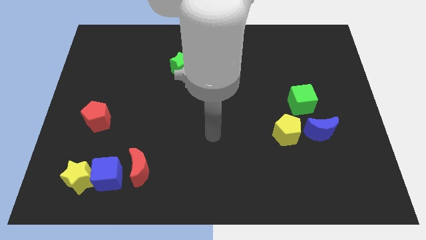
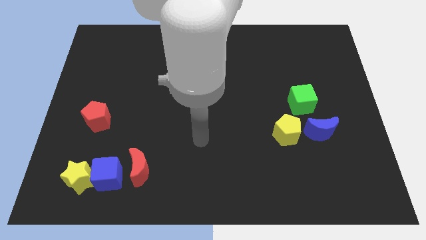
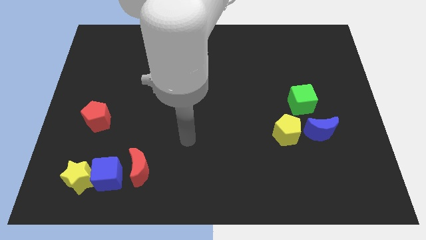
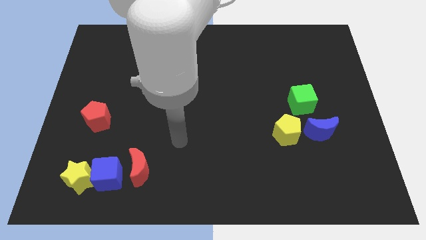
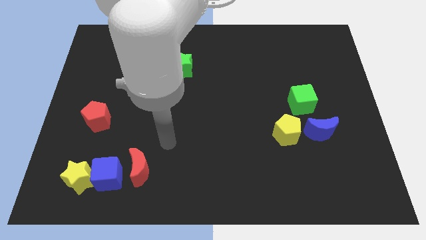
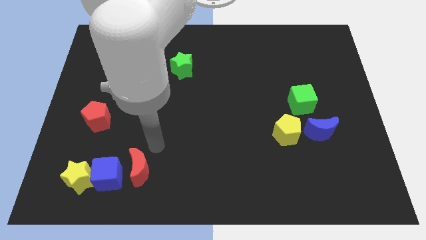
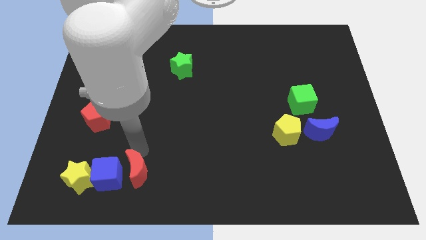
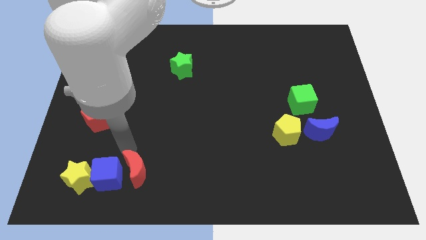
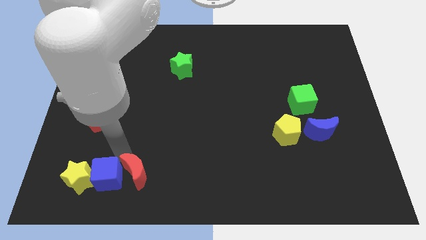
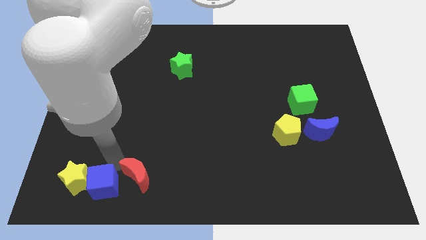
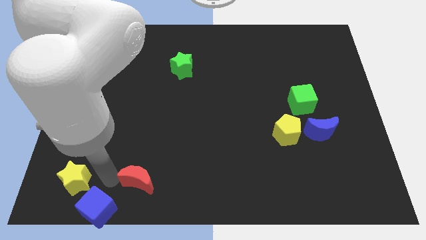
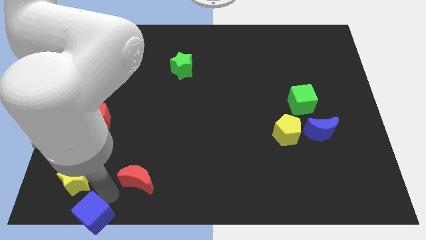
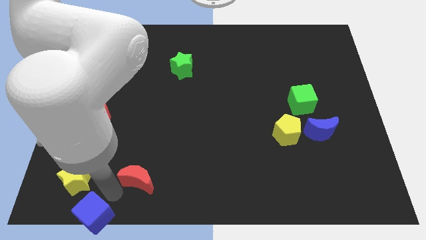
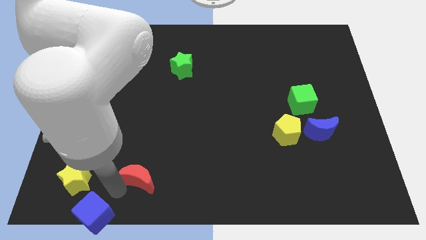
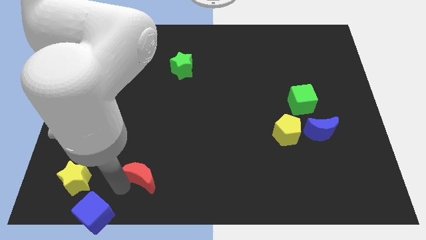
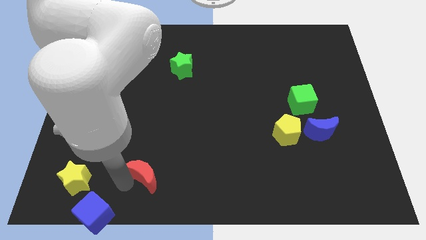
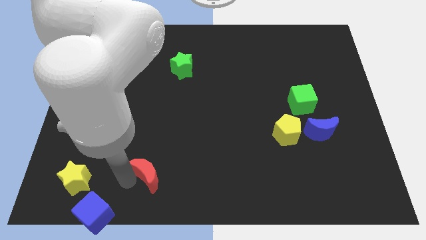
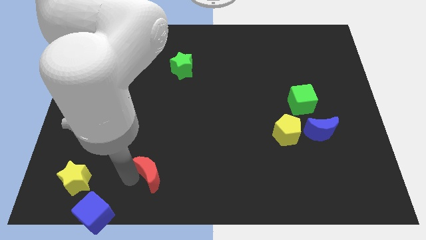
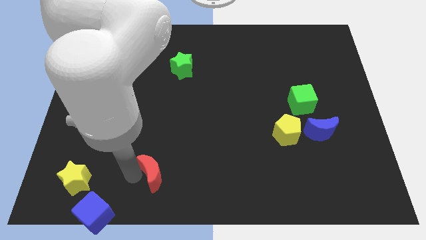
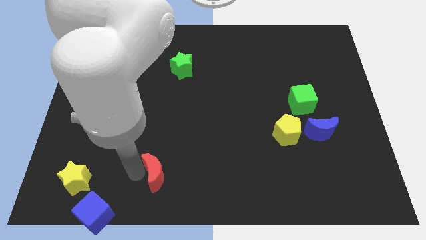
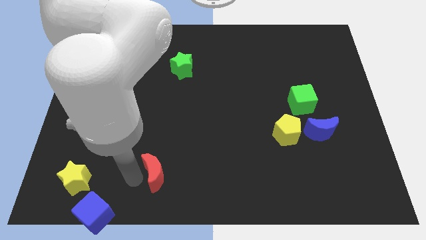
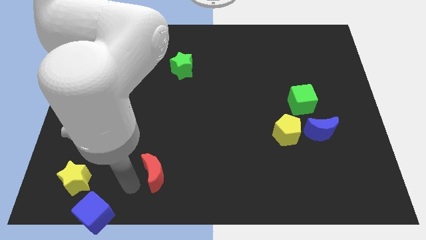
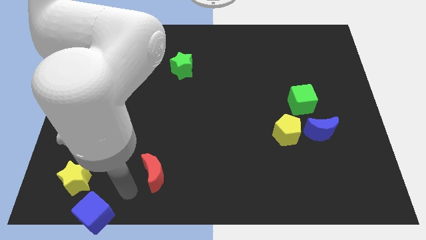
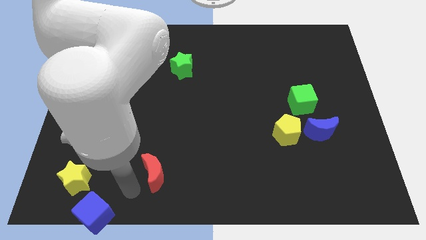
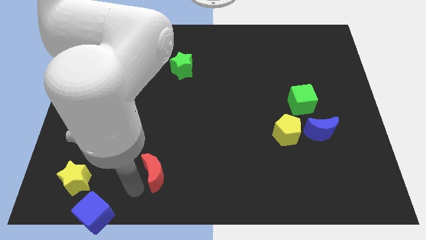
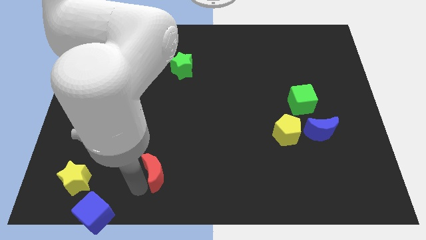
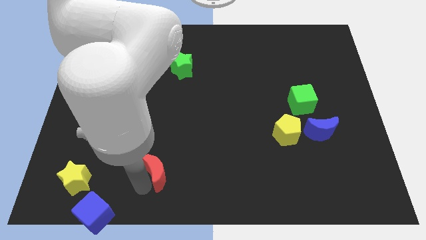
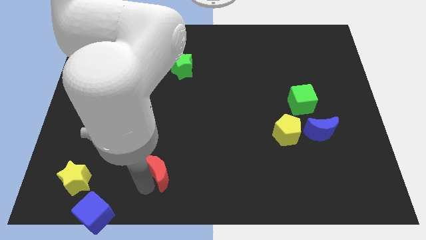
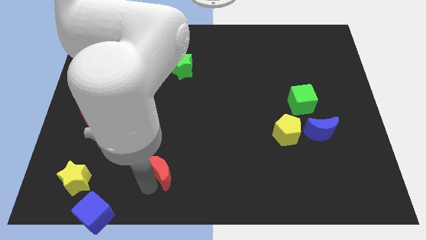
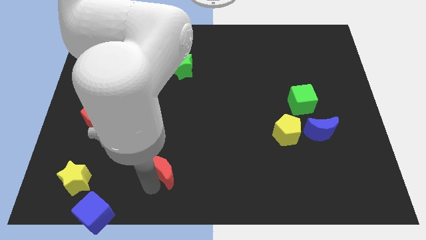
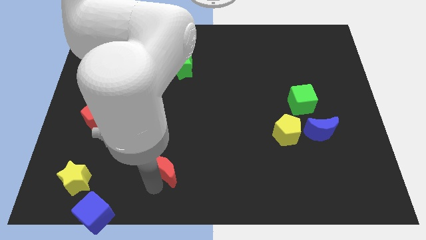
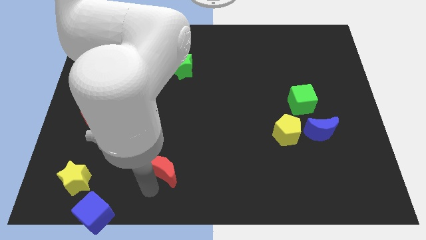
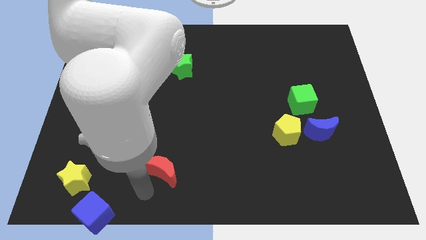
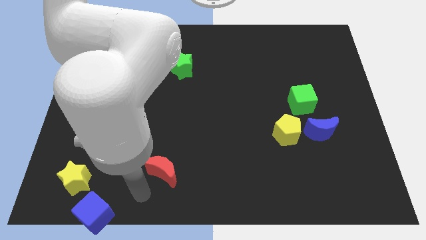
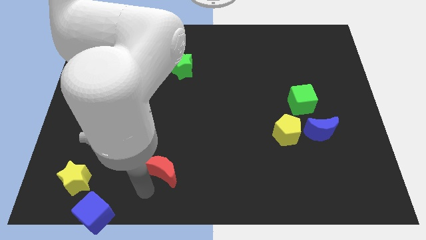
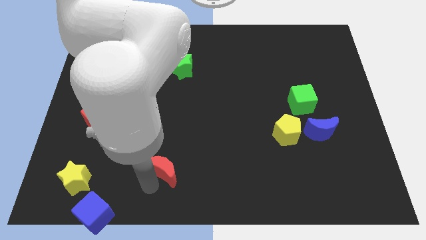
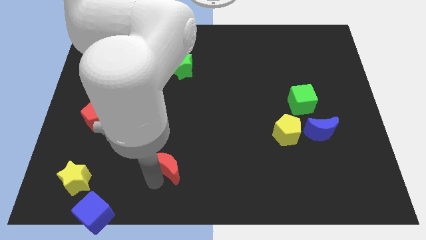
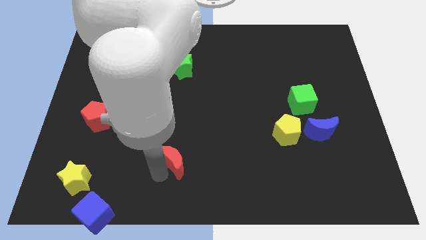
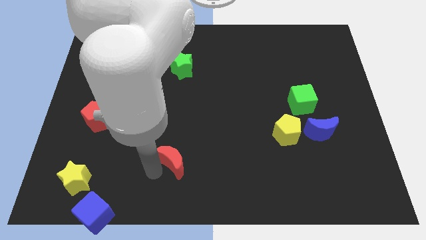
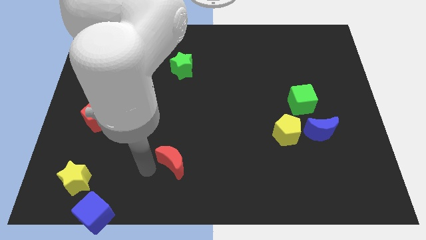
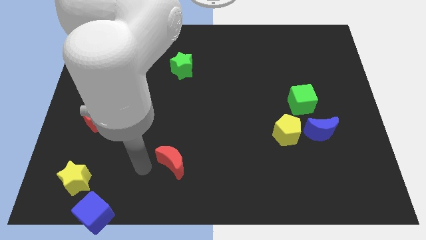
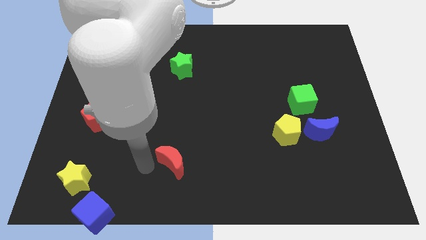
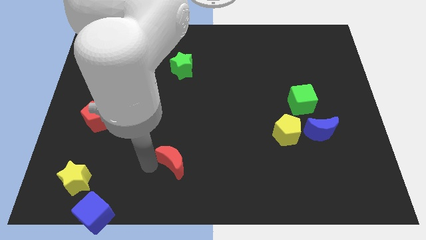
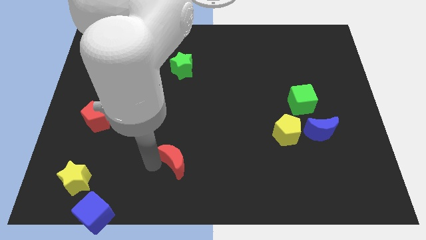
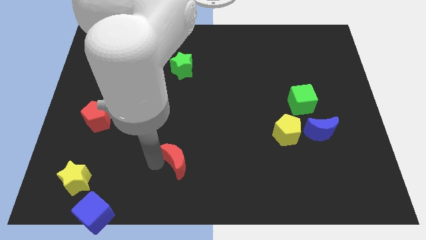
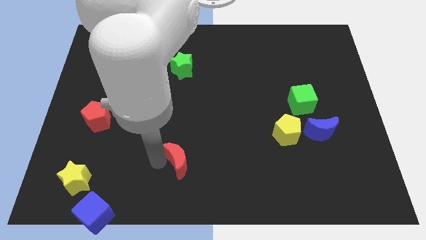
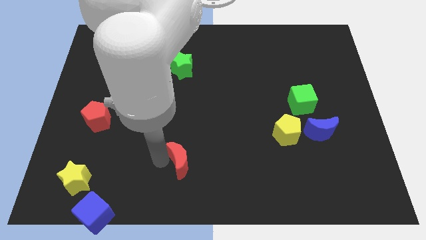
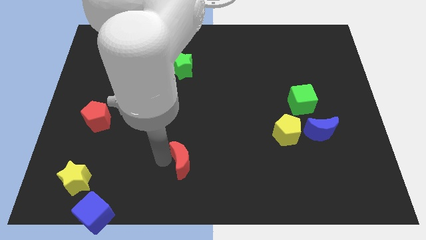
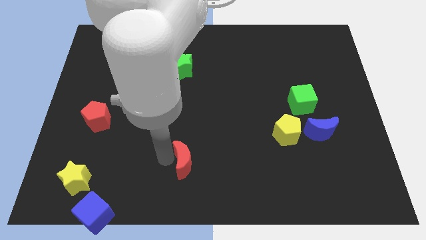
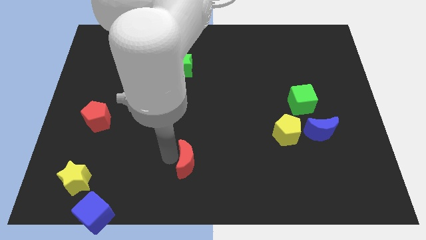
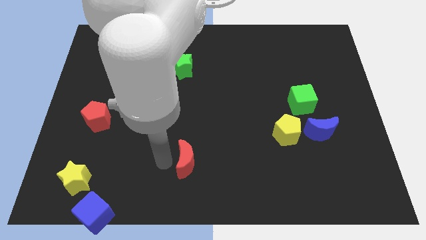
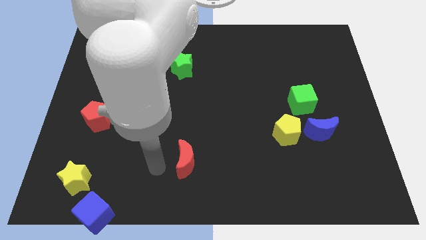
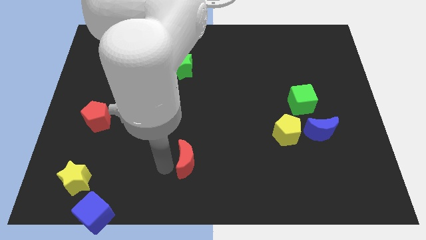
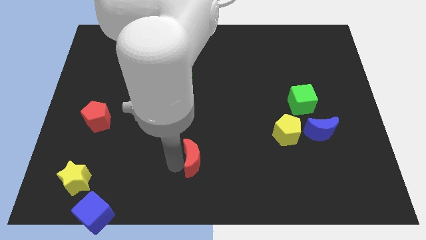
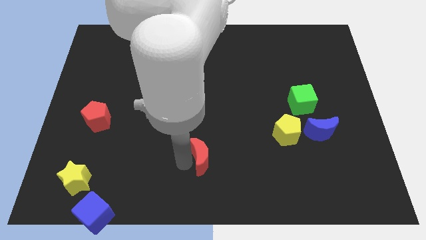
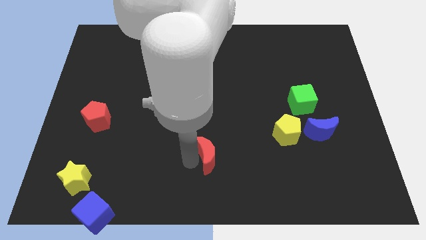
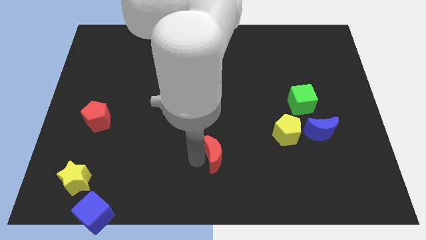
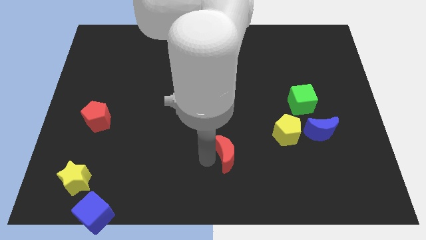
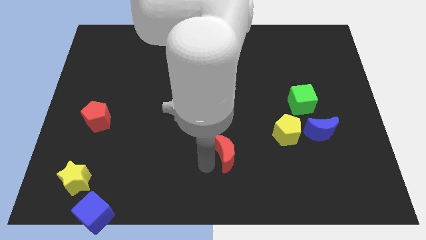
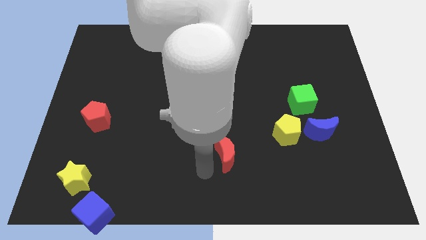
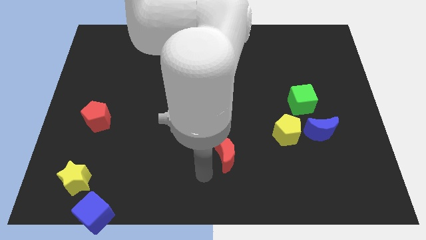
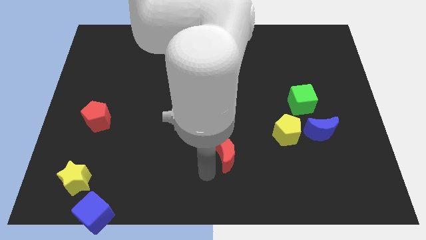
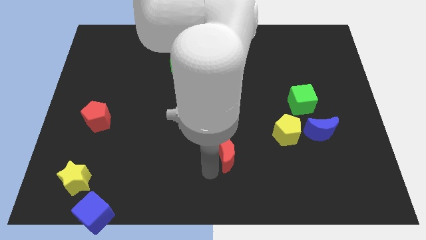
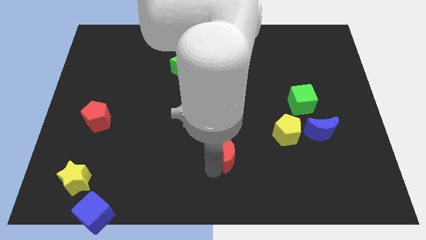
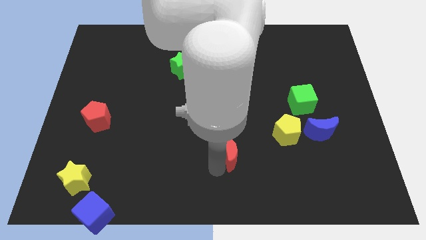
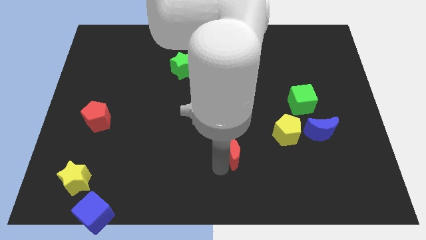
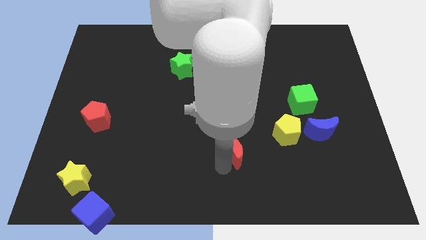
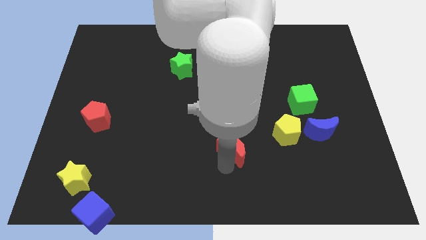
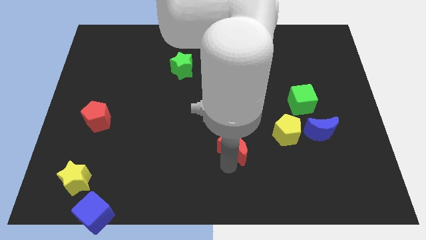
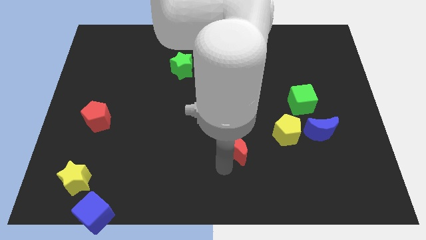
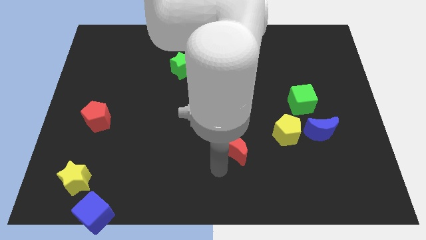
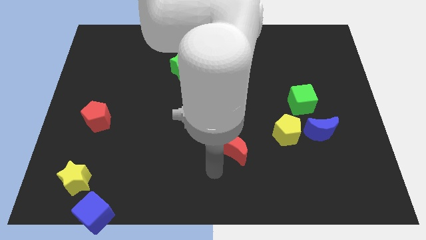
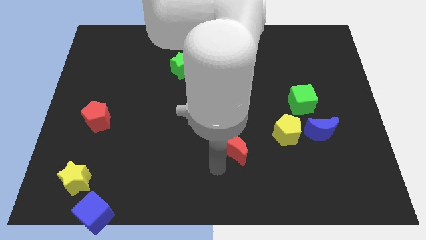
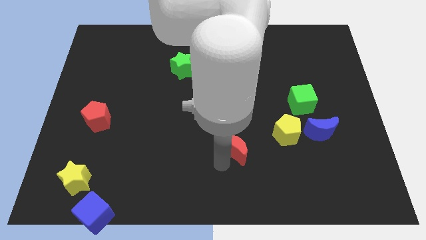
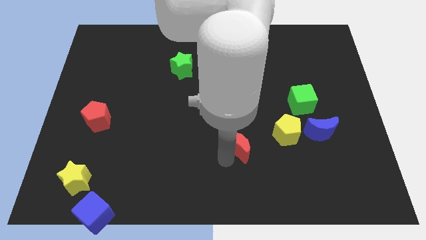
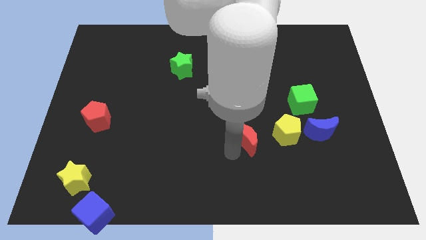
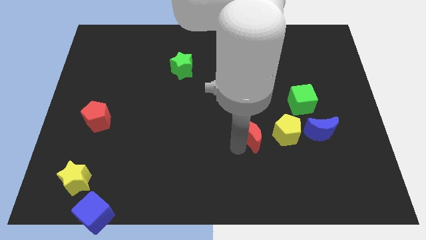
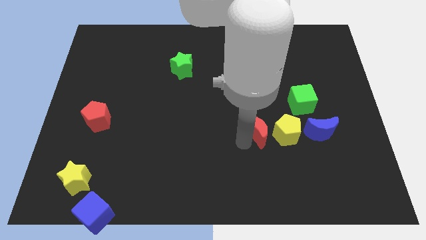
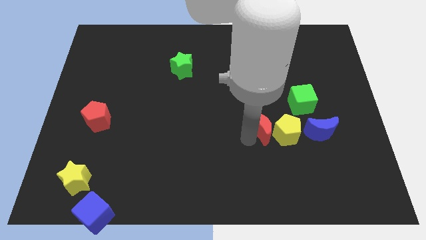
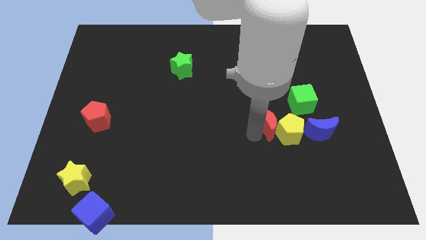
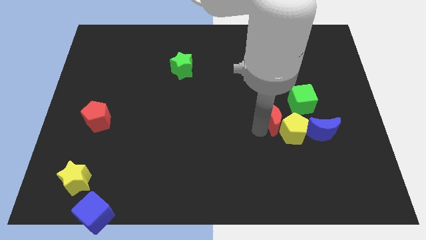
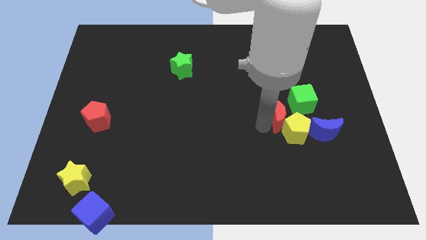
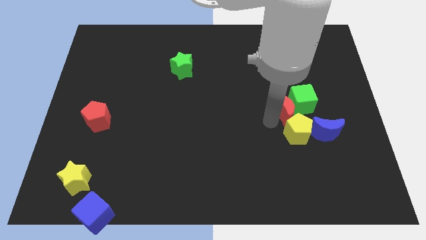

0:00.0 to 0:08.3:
move the red moon to the green cube
